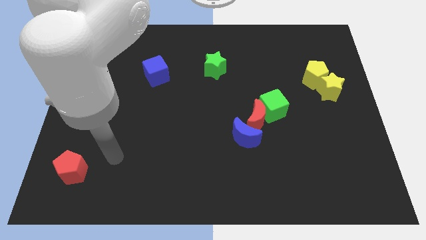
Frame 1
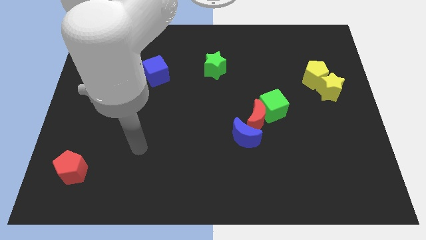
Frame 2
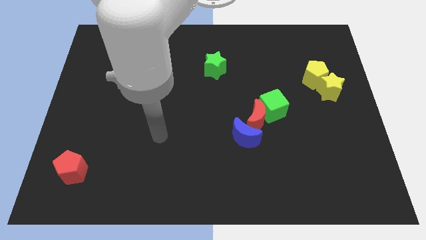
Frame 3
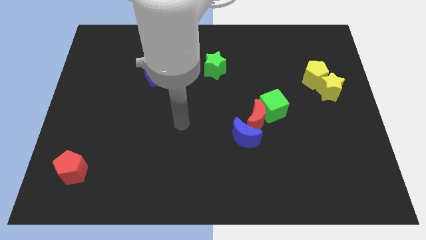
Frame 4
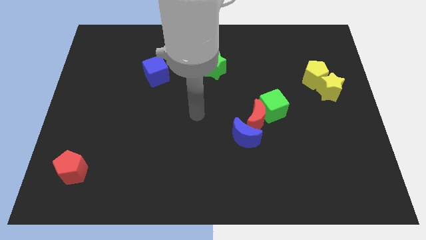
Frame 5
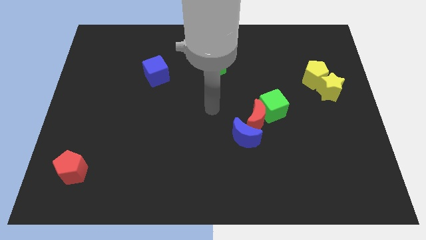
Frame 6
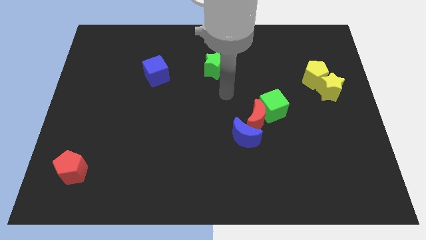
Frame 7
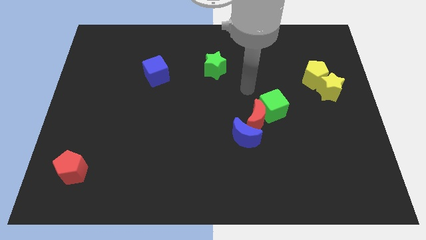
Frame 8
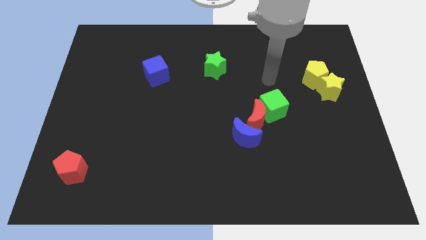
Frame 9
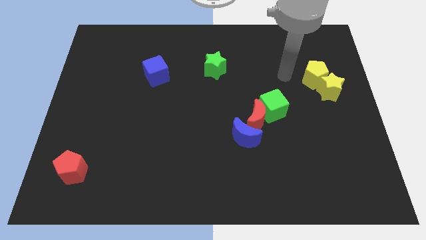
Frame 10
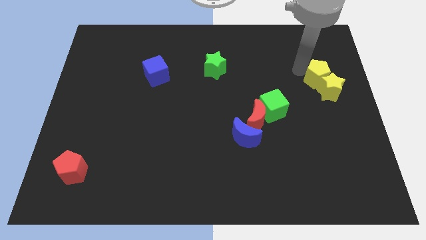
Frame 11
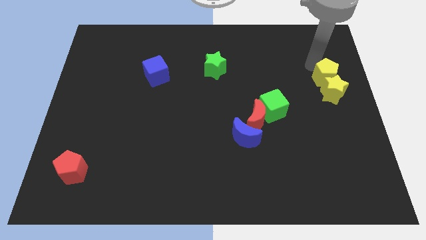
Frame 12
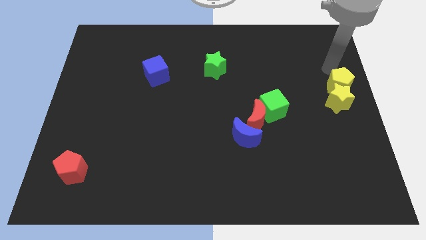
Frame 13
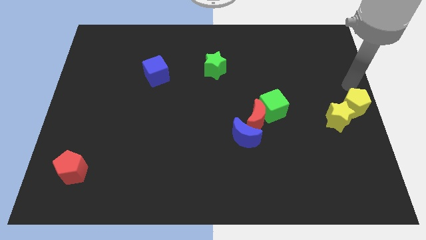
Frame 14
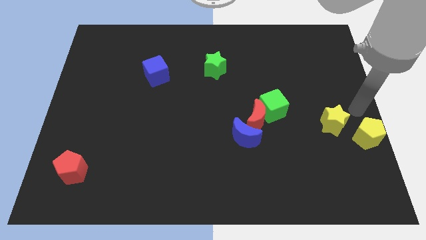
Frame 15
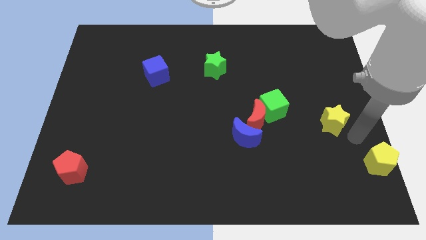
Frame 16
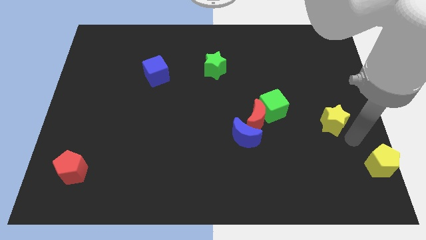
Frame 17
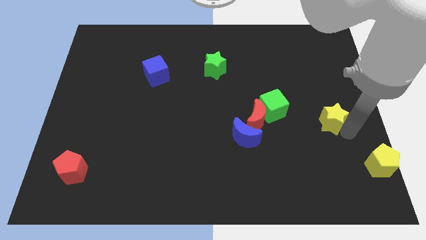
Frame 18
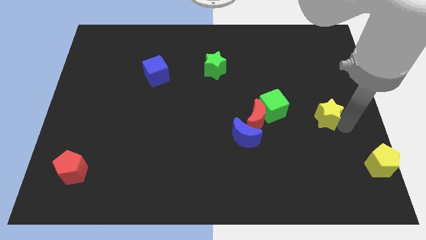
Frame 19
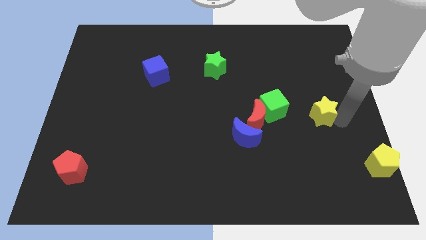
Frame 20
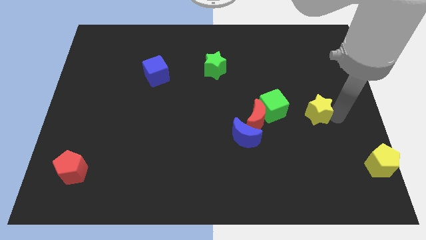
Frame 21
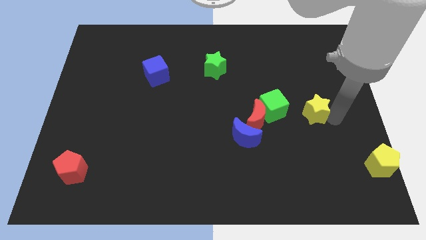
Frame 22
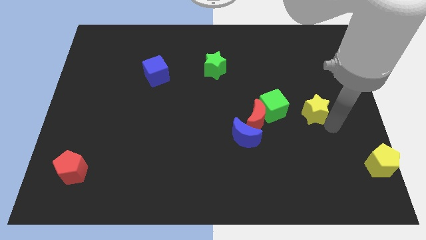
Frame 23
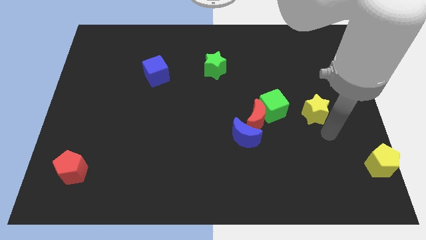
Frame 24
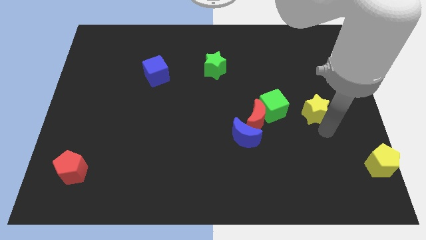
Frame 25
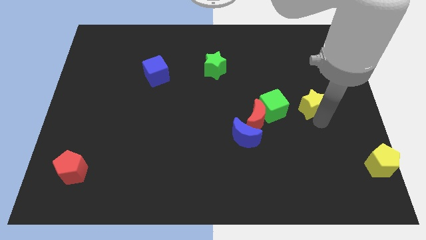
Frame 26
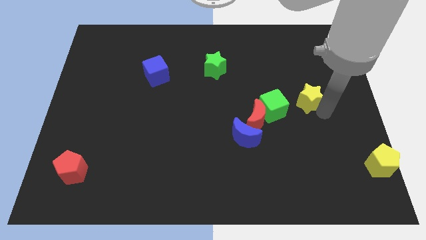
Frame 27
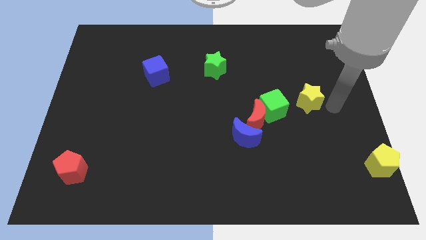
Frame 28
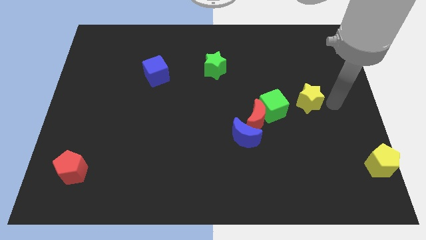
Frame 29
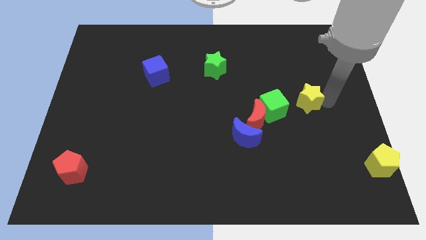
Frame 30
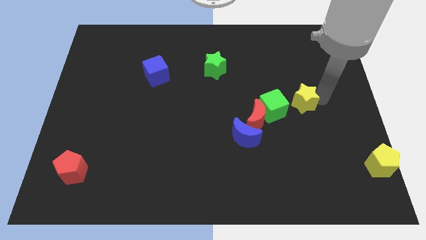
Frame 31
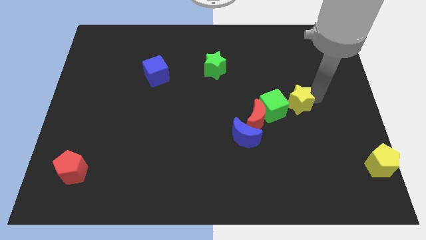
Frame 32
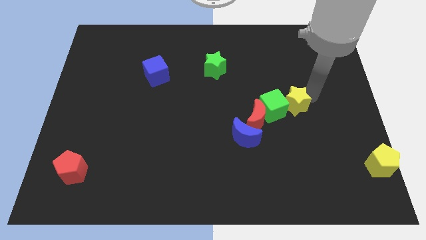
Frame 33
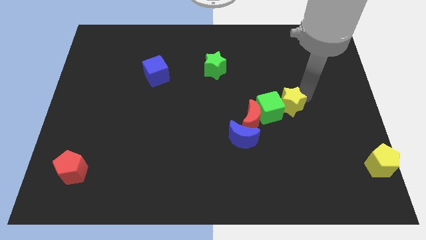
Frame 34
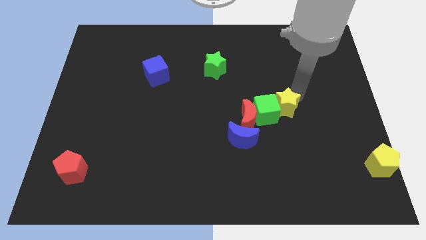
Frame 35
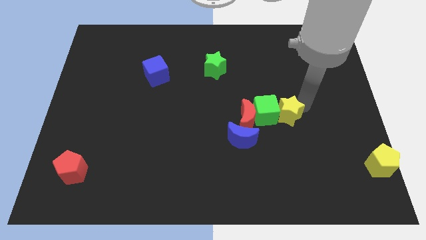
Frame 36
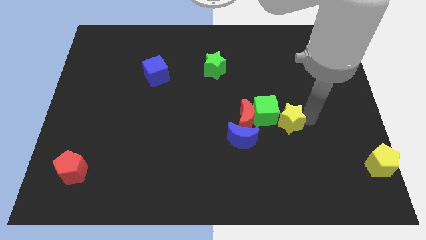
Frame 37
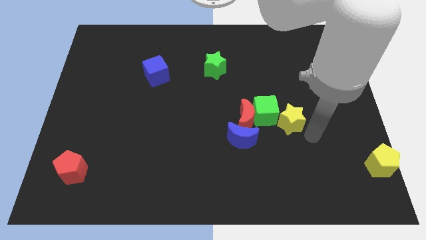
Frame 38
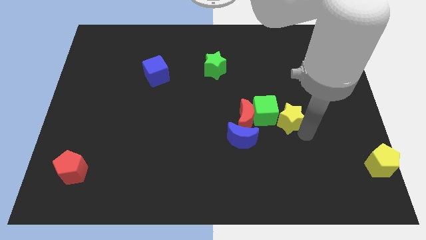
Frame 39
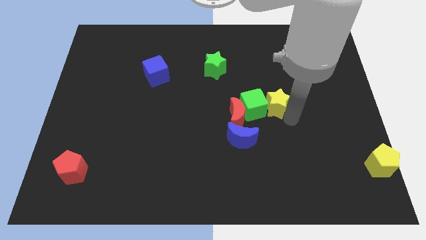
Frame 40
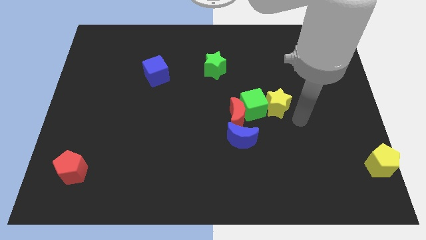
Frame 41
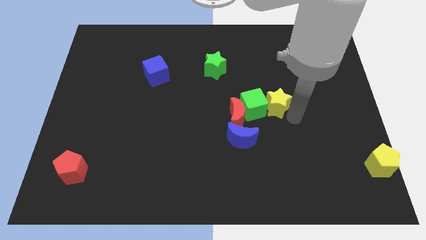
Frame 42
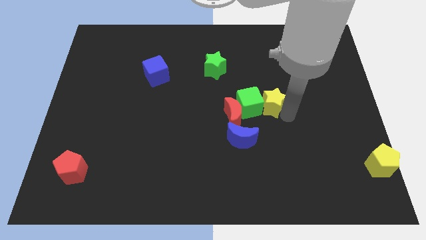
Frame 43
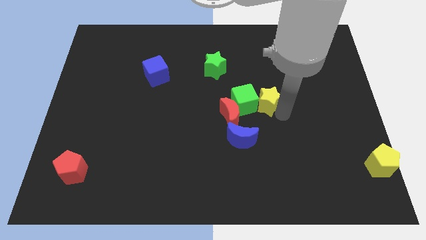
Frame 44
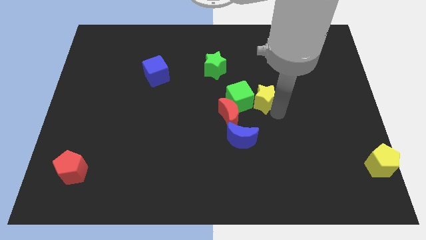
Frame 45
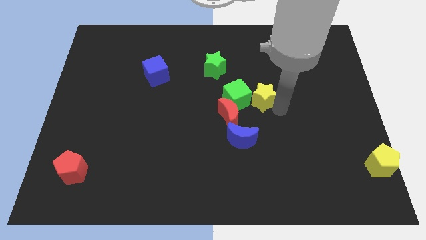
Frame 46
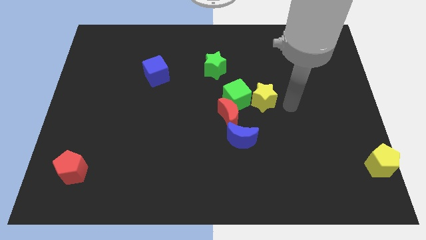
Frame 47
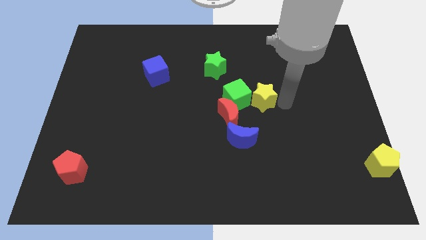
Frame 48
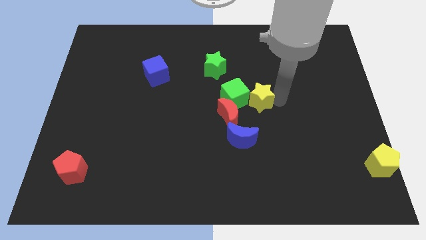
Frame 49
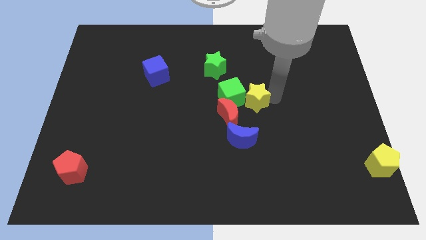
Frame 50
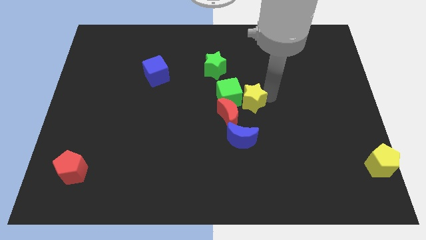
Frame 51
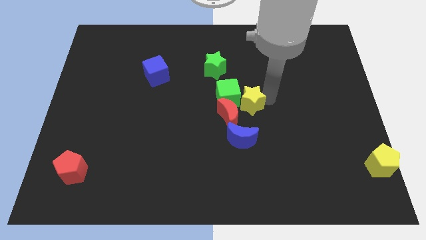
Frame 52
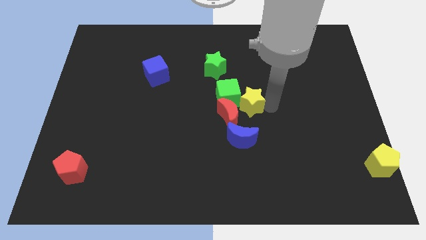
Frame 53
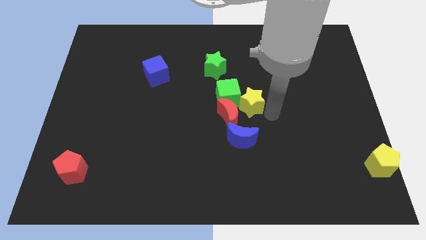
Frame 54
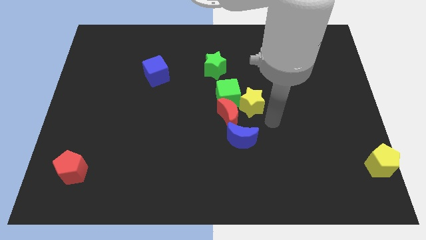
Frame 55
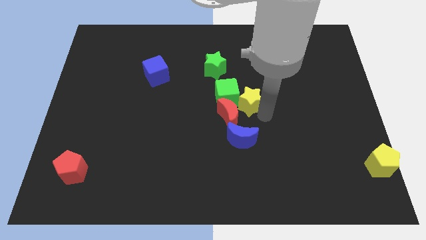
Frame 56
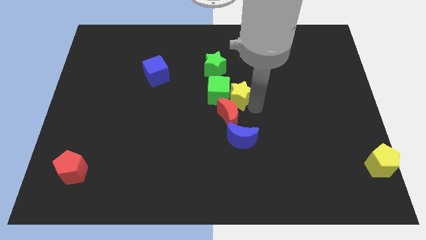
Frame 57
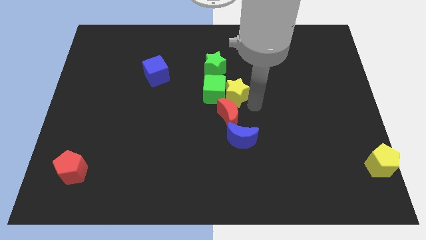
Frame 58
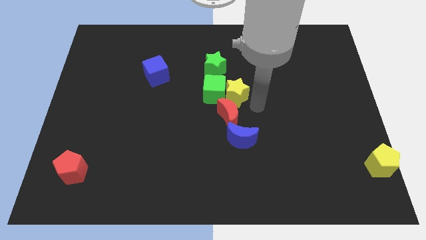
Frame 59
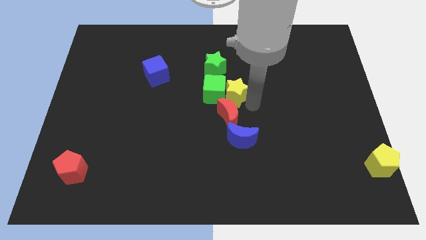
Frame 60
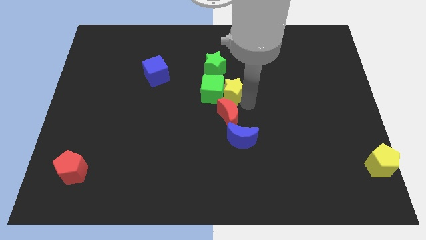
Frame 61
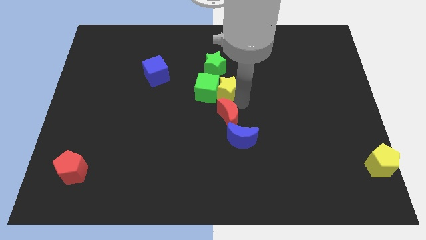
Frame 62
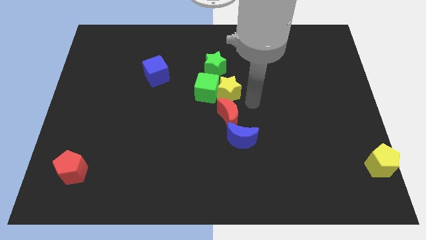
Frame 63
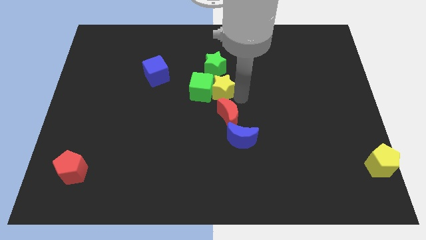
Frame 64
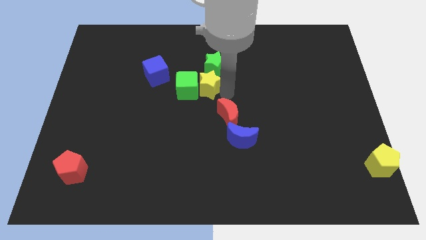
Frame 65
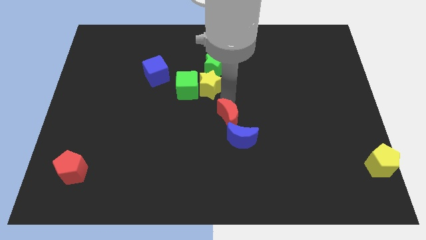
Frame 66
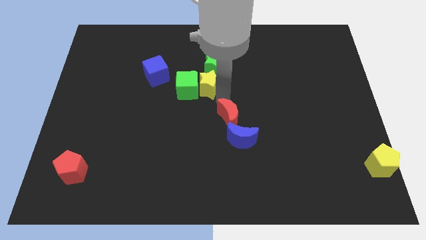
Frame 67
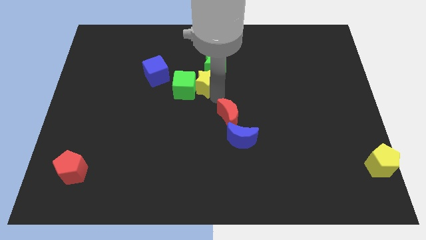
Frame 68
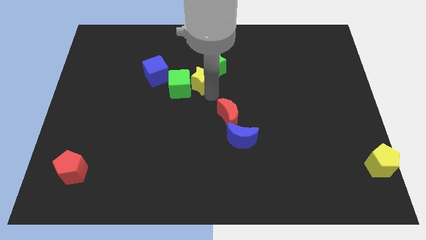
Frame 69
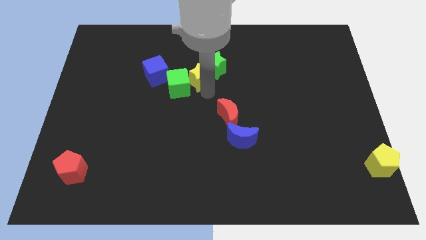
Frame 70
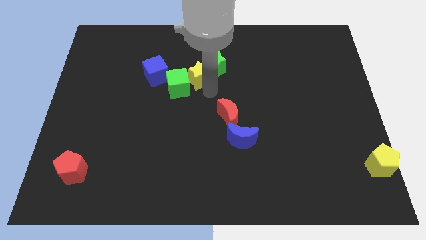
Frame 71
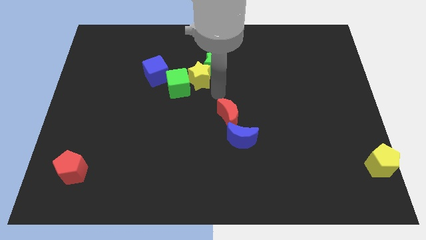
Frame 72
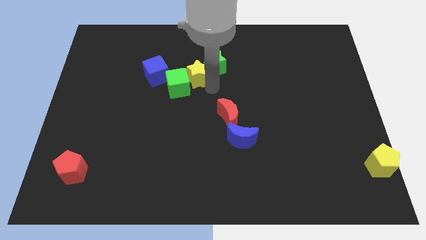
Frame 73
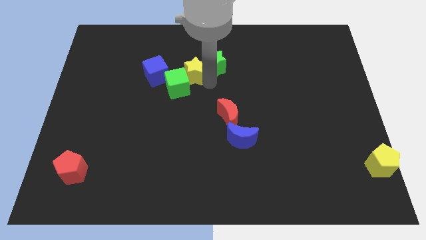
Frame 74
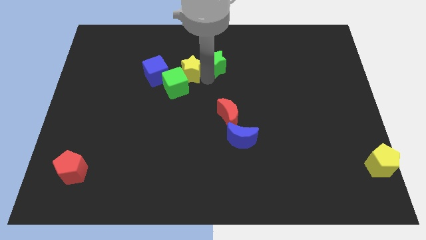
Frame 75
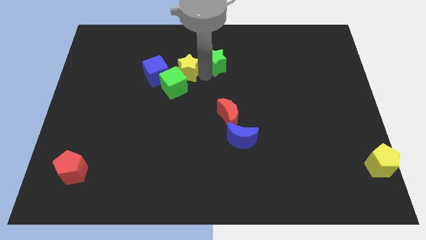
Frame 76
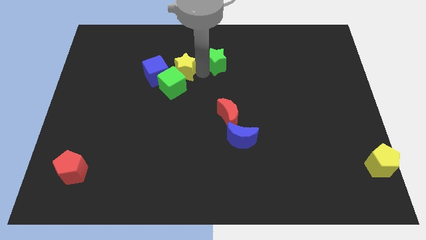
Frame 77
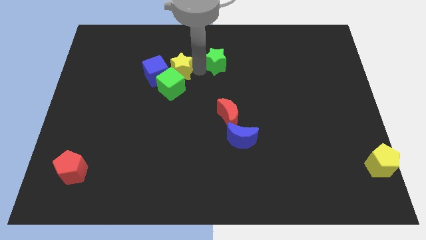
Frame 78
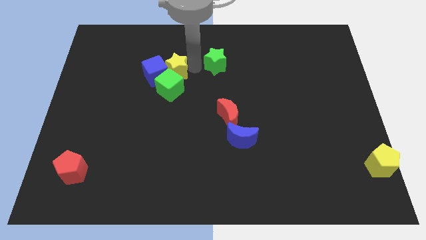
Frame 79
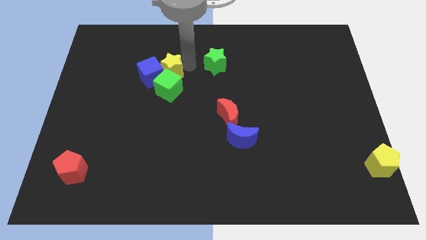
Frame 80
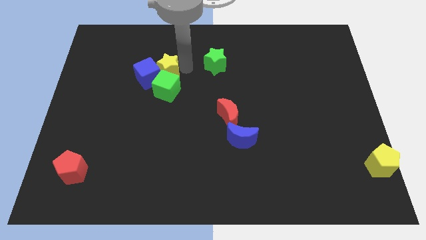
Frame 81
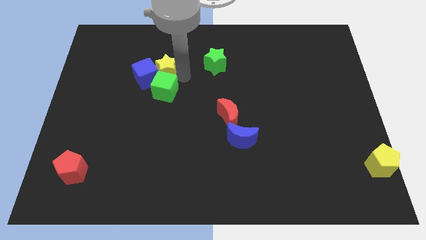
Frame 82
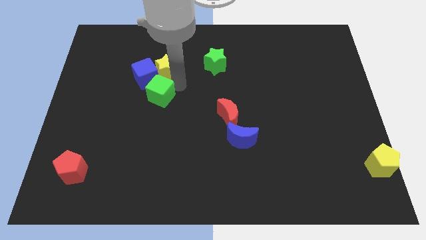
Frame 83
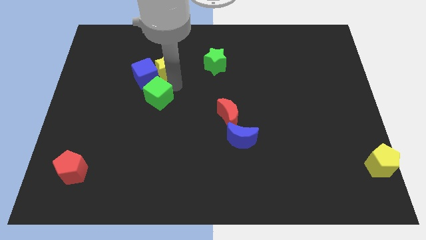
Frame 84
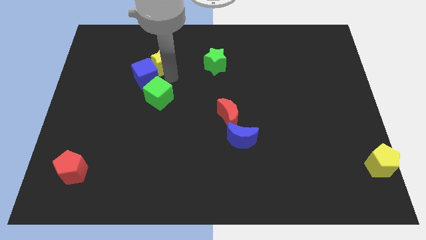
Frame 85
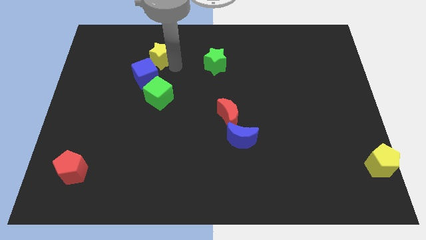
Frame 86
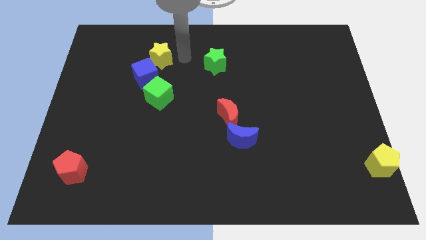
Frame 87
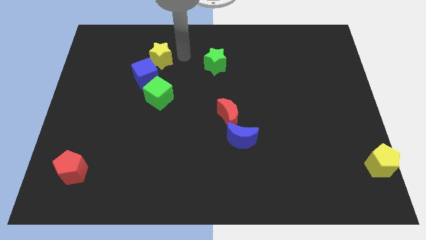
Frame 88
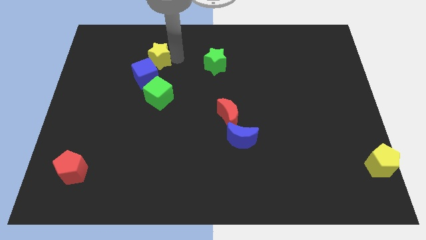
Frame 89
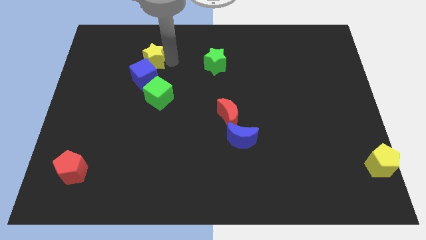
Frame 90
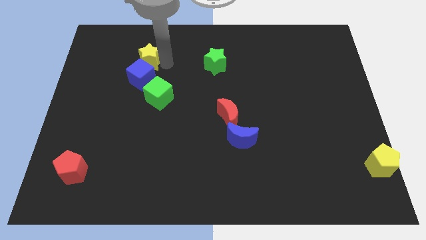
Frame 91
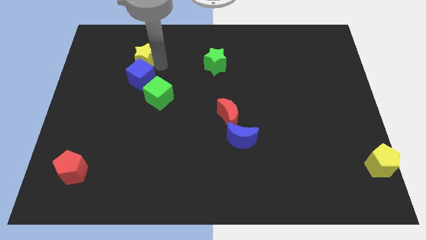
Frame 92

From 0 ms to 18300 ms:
push the yellow star to the top left side of the blue cube
